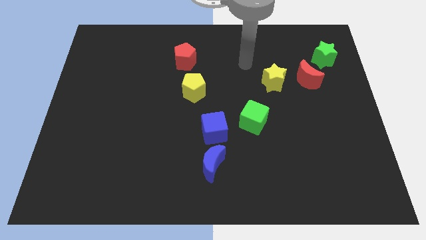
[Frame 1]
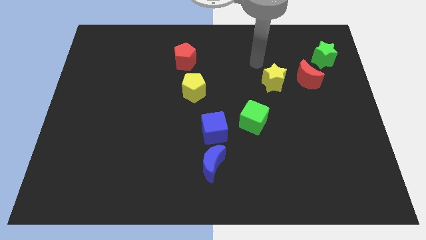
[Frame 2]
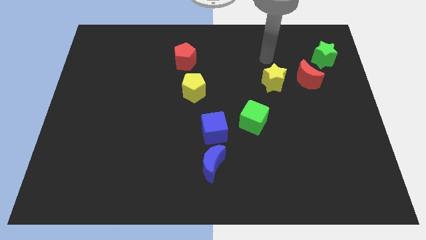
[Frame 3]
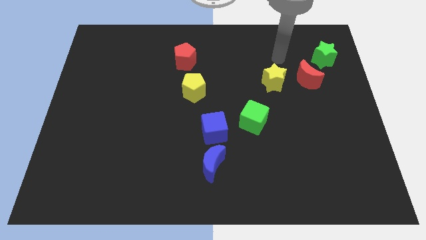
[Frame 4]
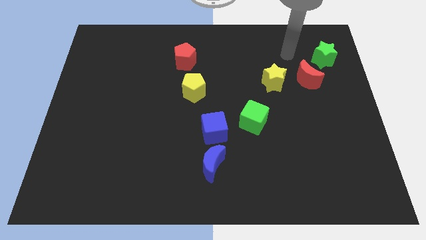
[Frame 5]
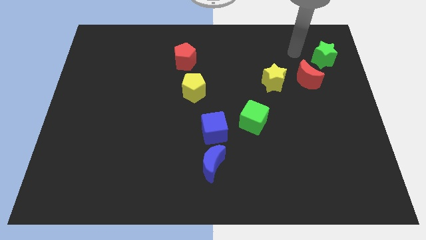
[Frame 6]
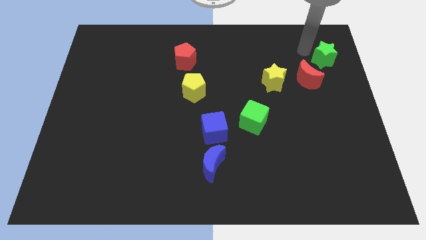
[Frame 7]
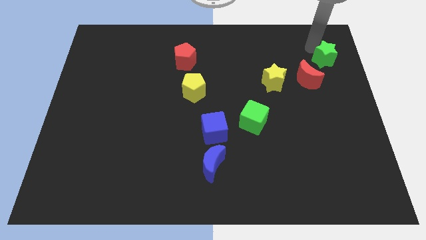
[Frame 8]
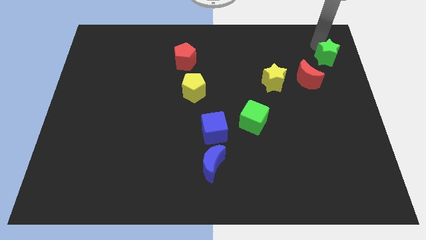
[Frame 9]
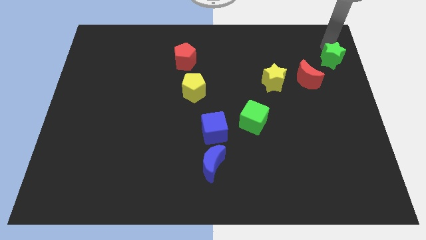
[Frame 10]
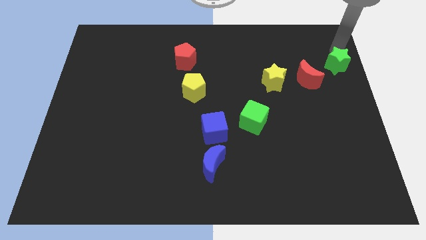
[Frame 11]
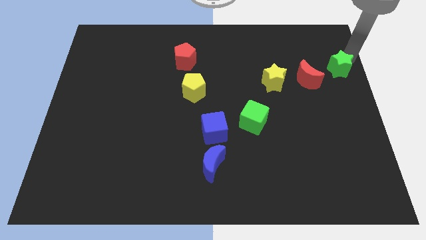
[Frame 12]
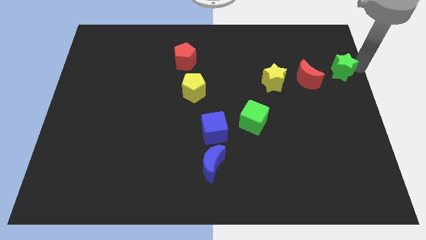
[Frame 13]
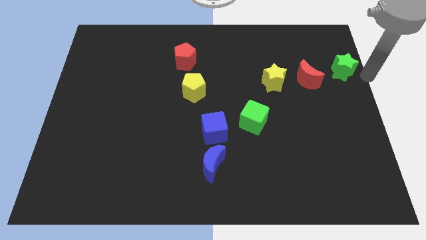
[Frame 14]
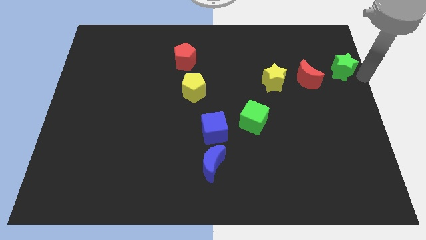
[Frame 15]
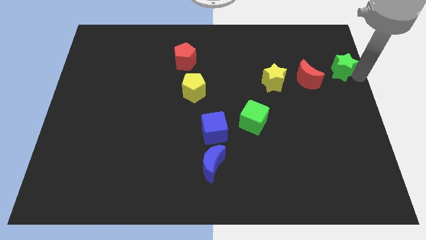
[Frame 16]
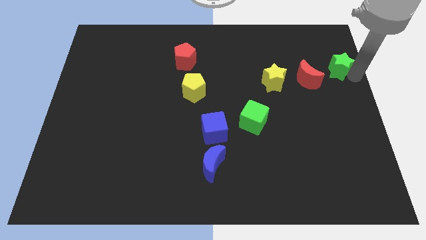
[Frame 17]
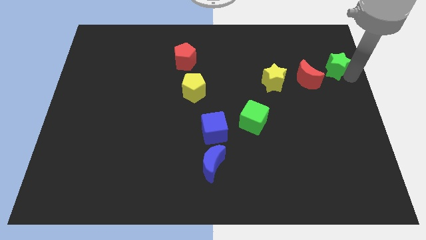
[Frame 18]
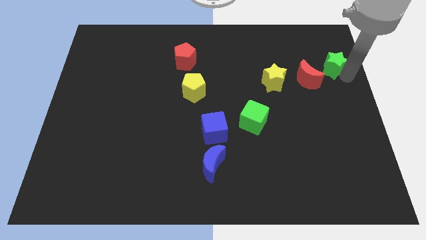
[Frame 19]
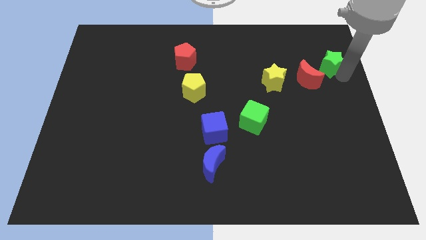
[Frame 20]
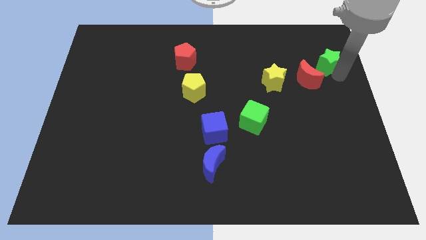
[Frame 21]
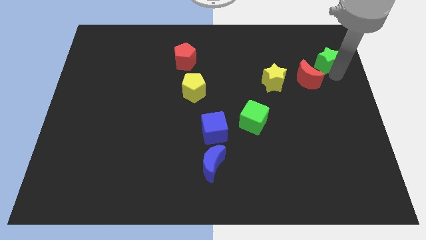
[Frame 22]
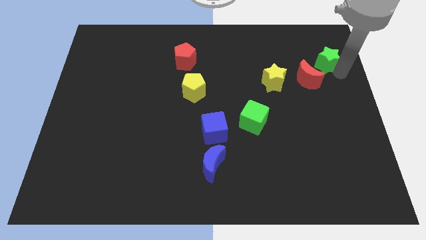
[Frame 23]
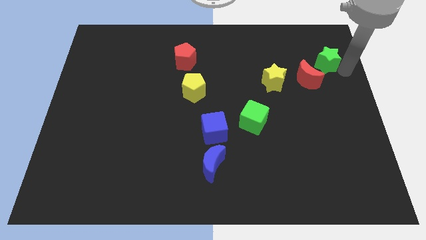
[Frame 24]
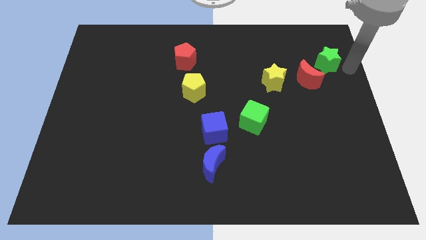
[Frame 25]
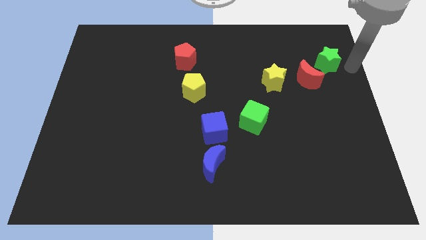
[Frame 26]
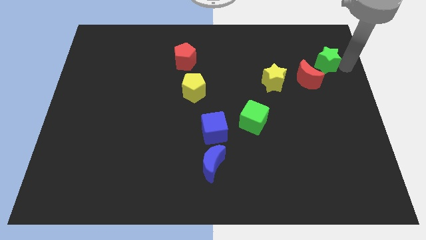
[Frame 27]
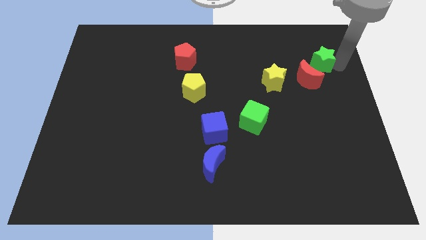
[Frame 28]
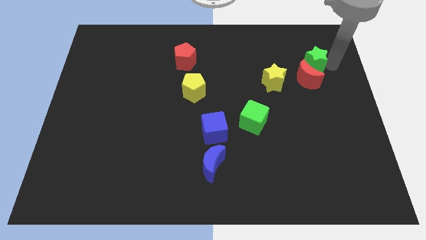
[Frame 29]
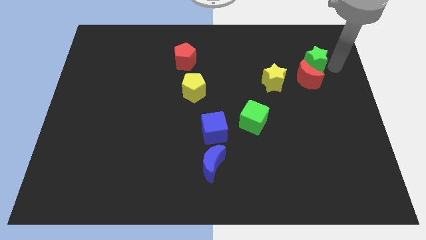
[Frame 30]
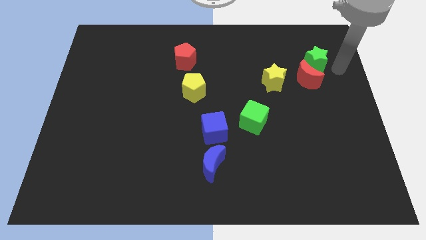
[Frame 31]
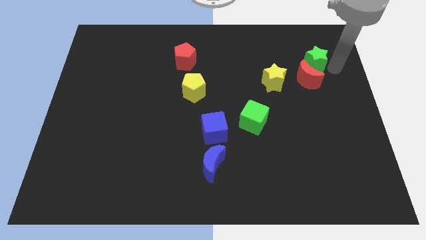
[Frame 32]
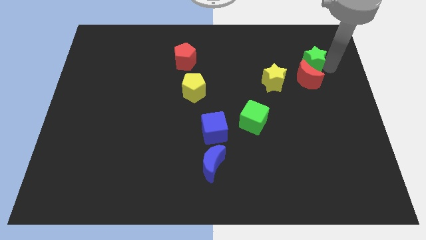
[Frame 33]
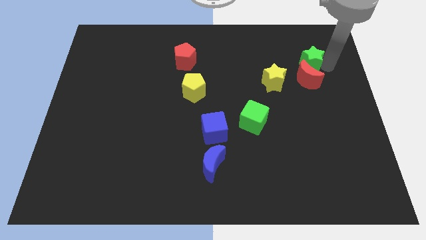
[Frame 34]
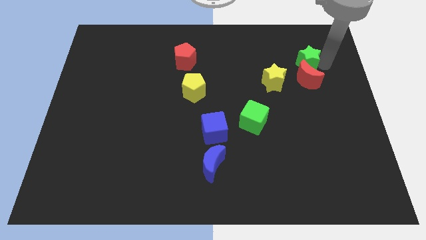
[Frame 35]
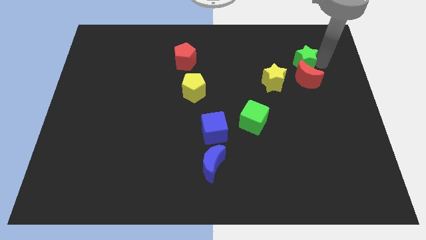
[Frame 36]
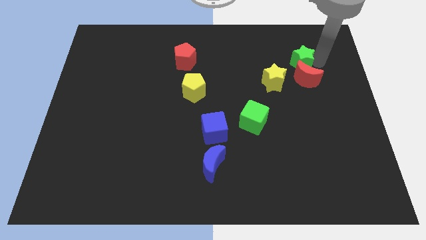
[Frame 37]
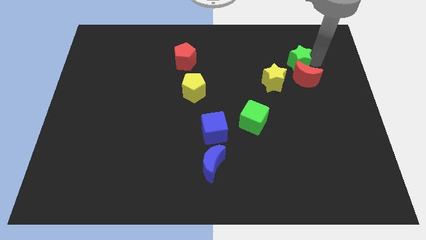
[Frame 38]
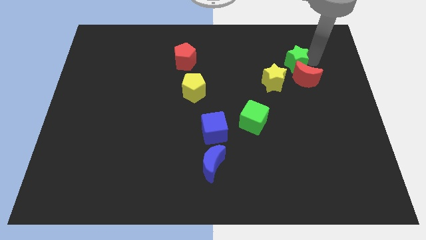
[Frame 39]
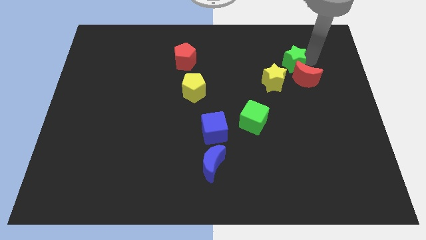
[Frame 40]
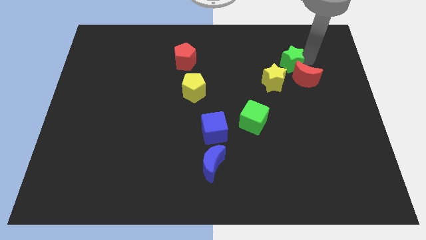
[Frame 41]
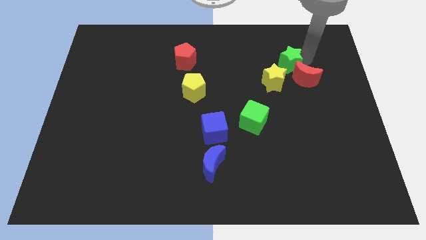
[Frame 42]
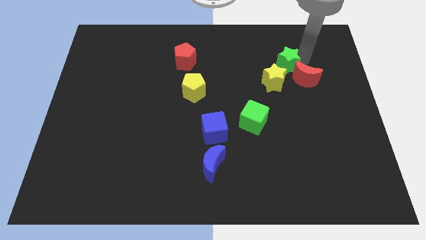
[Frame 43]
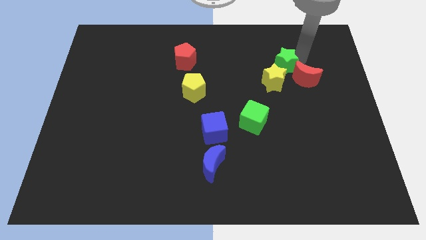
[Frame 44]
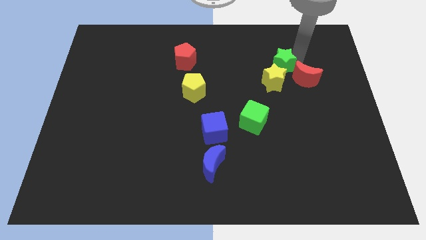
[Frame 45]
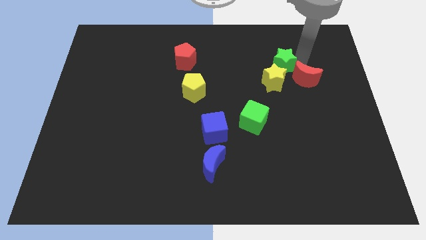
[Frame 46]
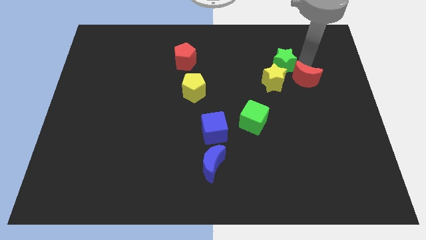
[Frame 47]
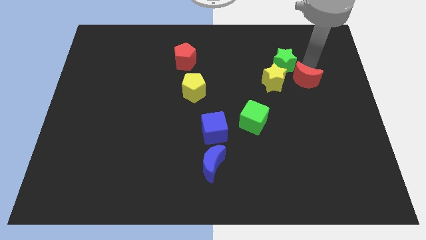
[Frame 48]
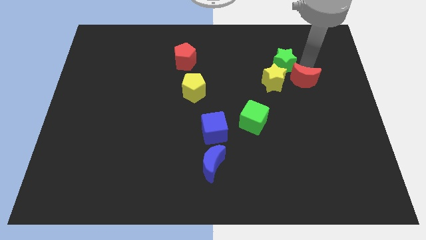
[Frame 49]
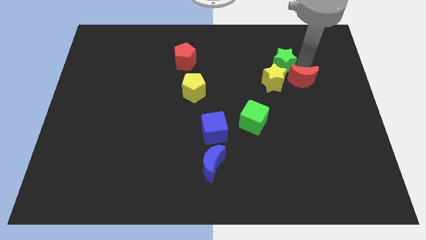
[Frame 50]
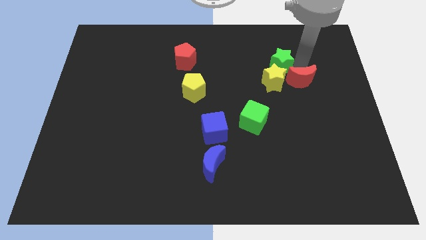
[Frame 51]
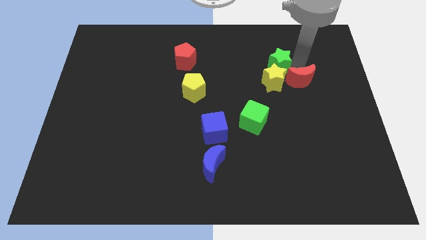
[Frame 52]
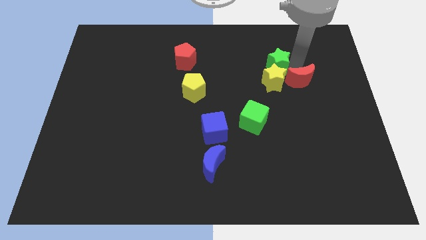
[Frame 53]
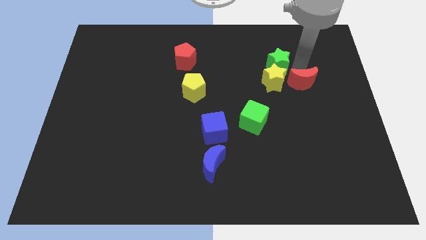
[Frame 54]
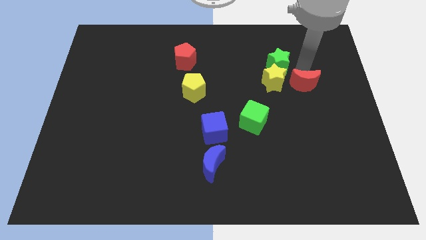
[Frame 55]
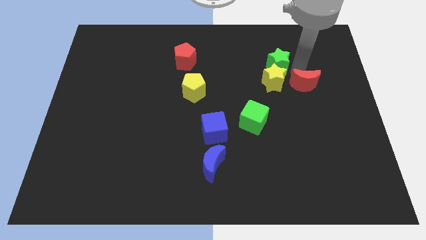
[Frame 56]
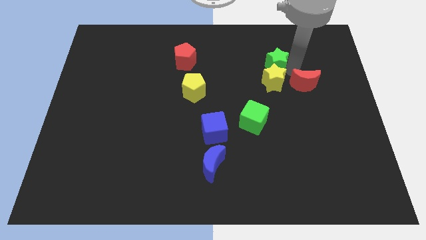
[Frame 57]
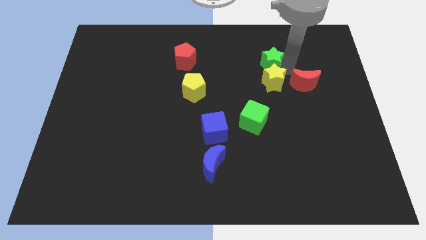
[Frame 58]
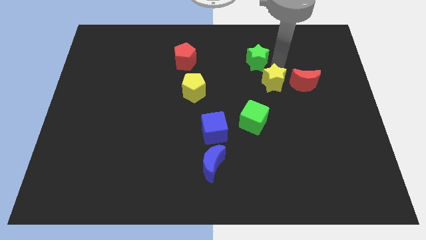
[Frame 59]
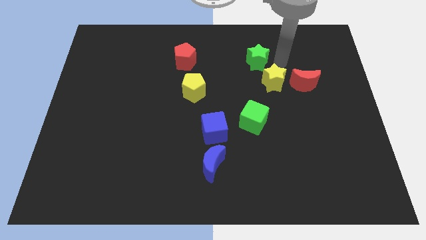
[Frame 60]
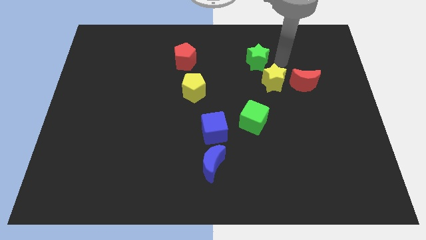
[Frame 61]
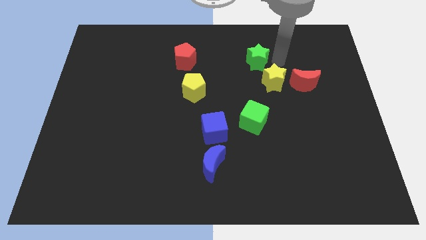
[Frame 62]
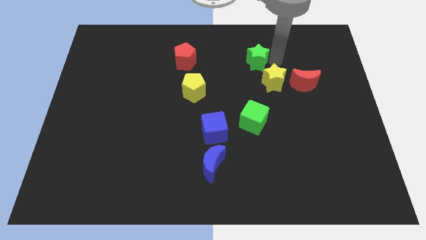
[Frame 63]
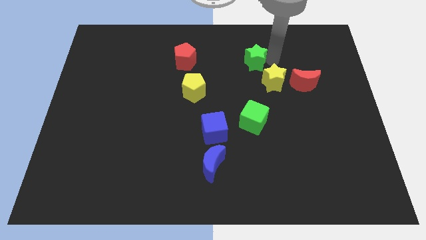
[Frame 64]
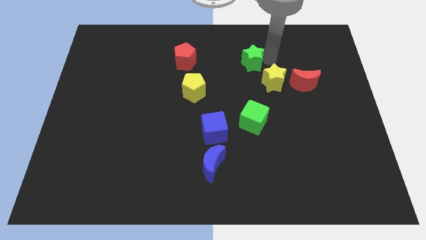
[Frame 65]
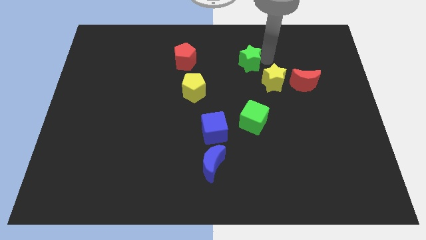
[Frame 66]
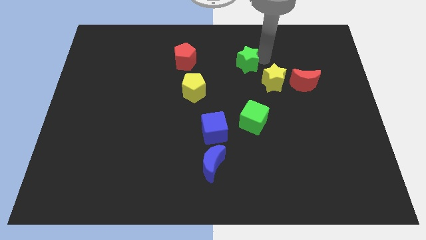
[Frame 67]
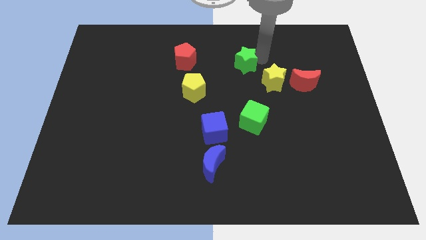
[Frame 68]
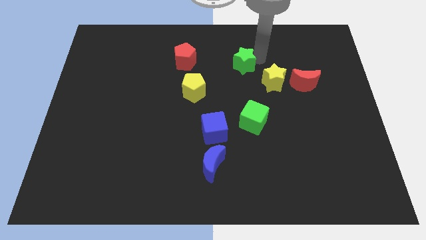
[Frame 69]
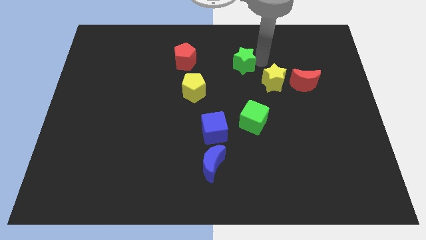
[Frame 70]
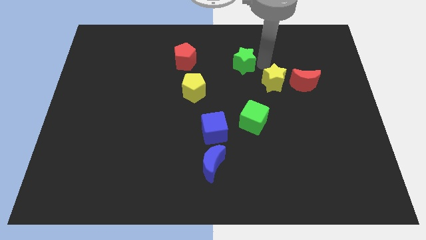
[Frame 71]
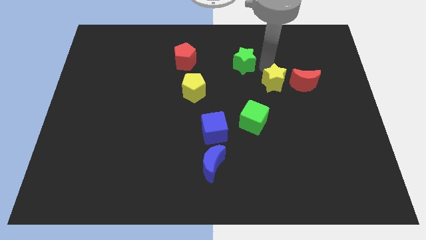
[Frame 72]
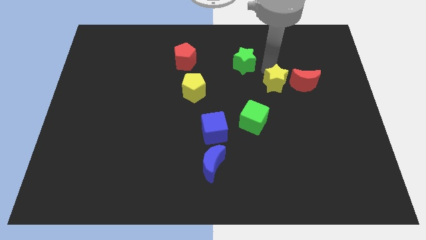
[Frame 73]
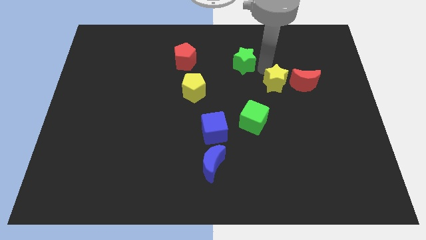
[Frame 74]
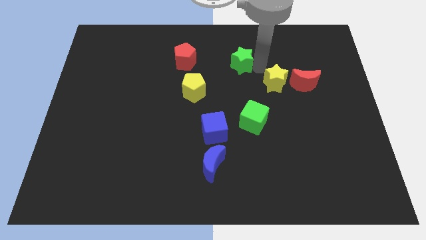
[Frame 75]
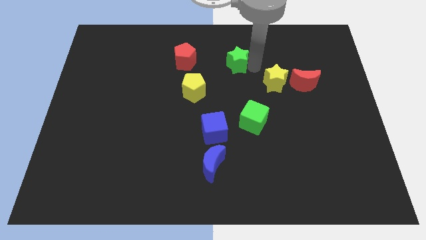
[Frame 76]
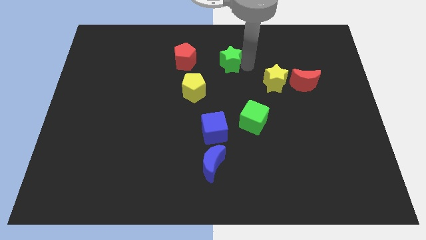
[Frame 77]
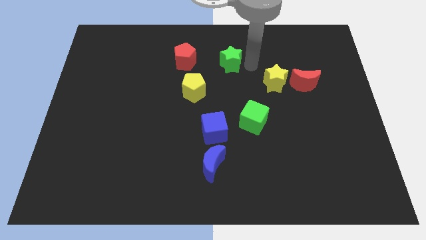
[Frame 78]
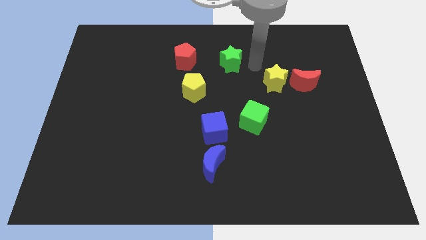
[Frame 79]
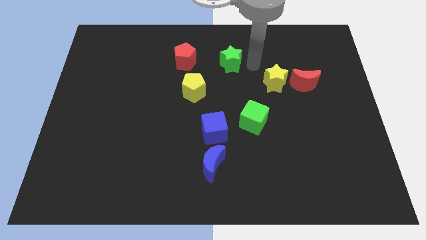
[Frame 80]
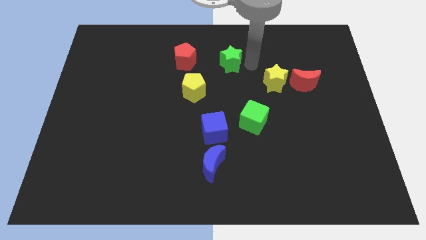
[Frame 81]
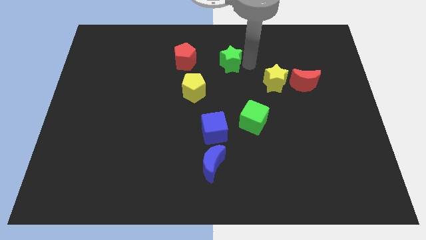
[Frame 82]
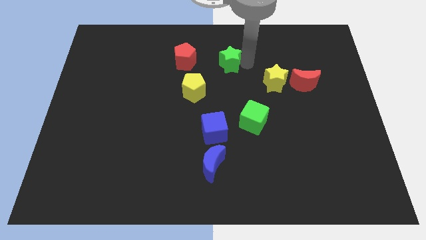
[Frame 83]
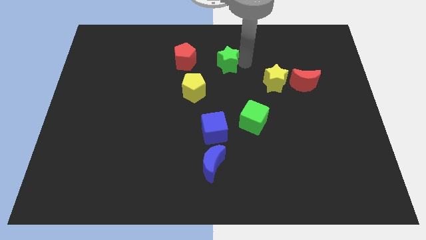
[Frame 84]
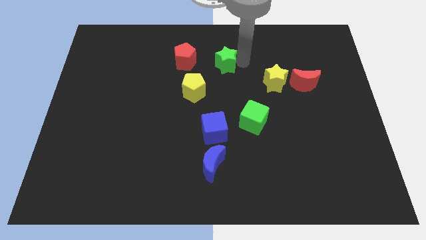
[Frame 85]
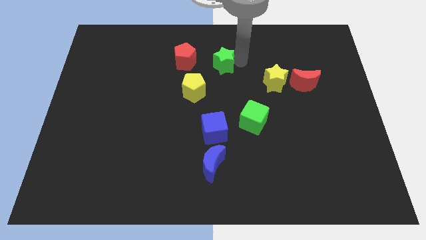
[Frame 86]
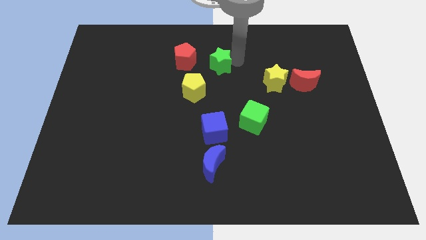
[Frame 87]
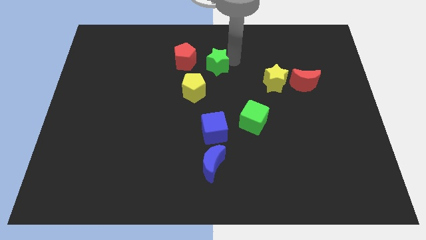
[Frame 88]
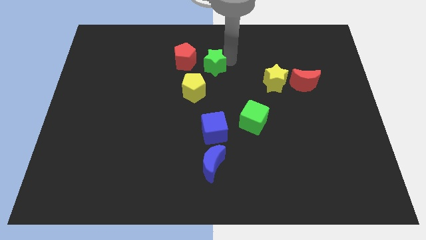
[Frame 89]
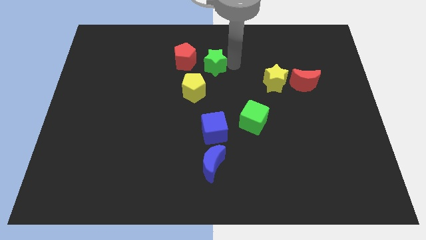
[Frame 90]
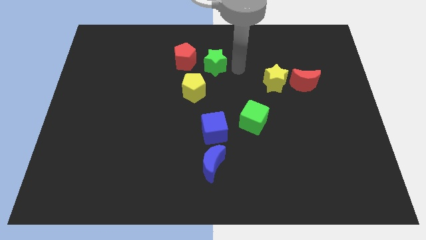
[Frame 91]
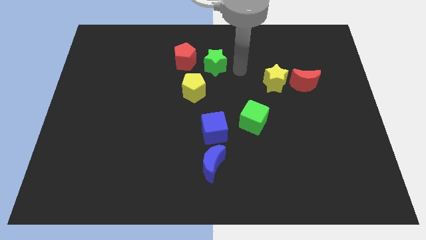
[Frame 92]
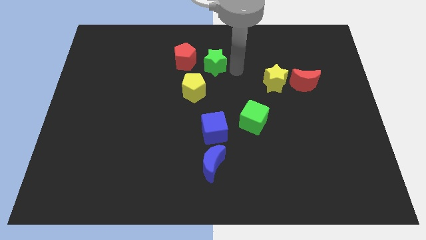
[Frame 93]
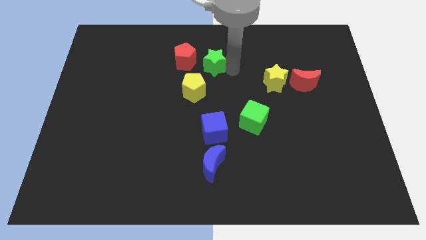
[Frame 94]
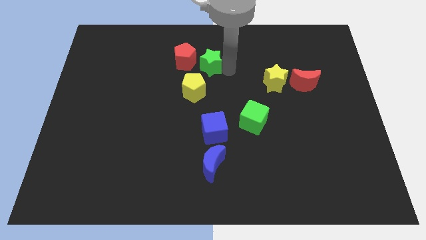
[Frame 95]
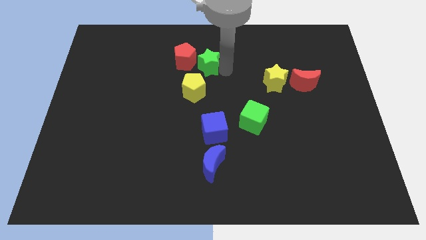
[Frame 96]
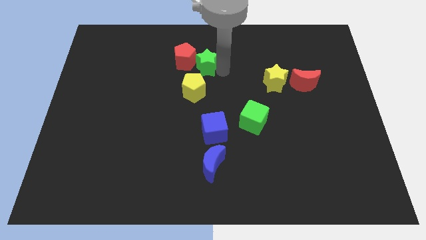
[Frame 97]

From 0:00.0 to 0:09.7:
move the green star towards the red pentagon
